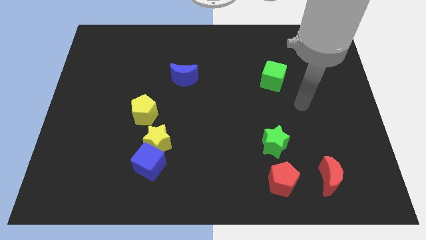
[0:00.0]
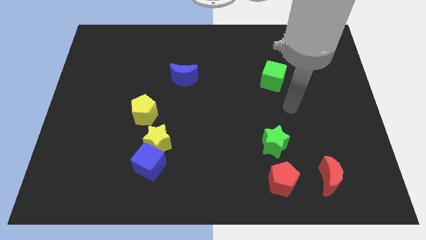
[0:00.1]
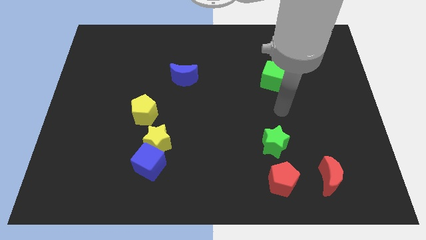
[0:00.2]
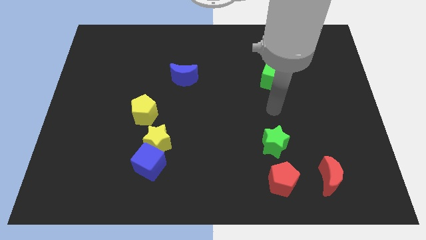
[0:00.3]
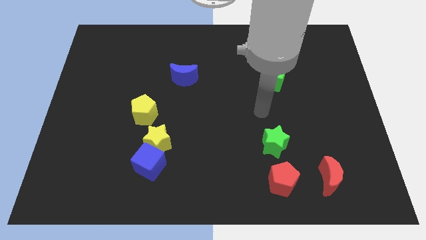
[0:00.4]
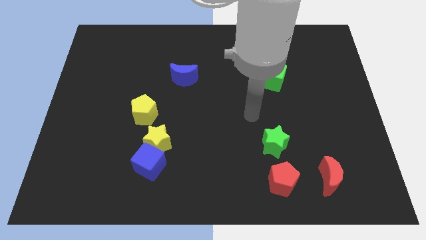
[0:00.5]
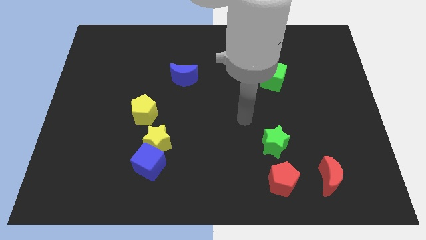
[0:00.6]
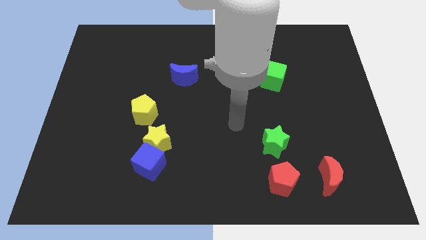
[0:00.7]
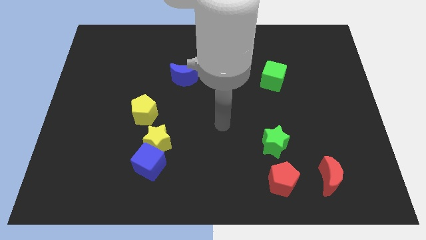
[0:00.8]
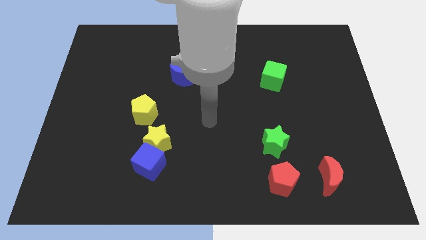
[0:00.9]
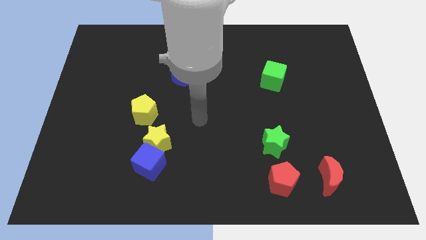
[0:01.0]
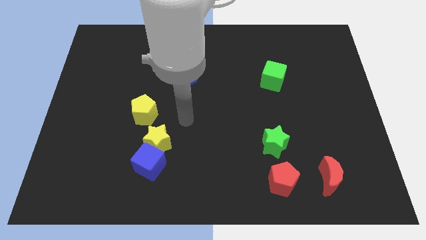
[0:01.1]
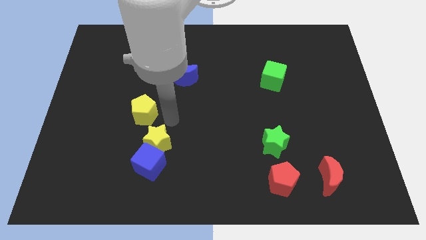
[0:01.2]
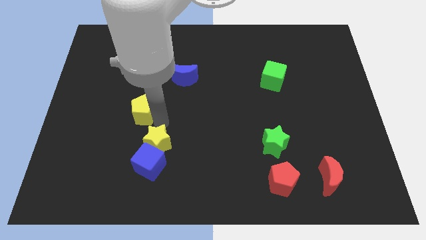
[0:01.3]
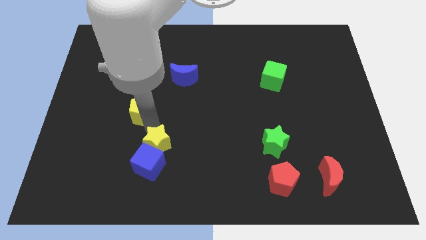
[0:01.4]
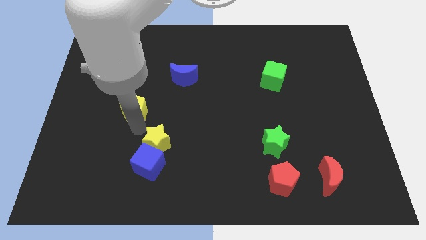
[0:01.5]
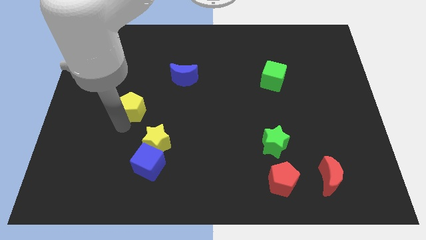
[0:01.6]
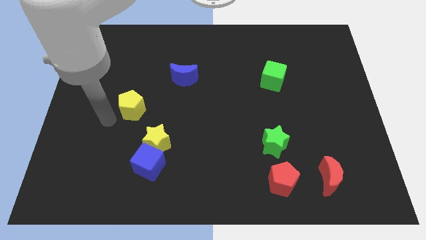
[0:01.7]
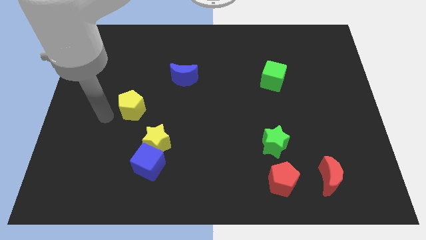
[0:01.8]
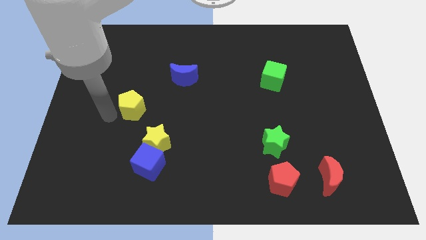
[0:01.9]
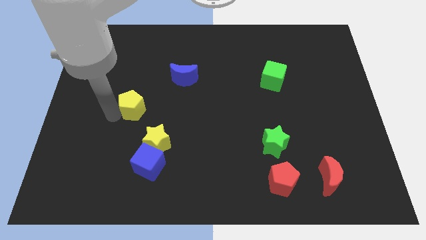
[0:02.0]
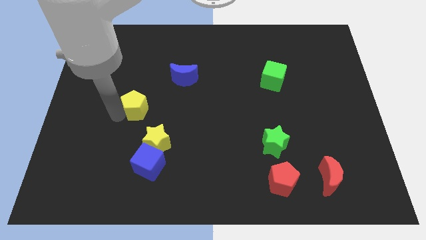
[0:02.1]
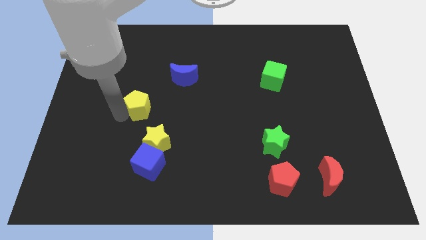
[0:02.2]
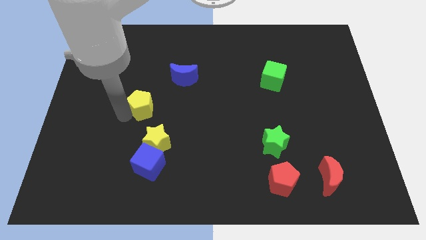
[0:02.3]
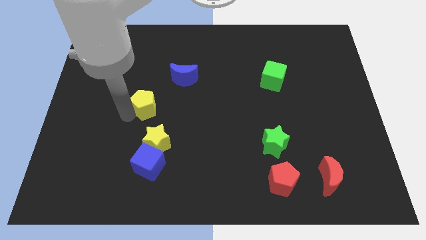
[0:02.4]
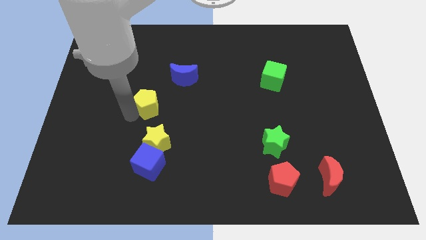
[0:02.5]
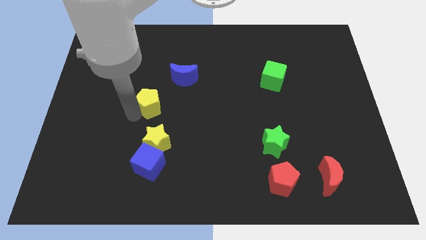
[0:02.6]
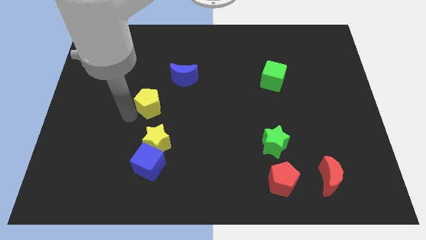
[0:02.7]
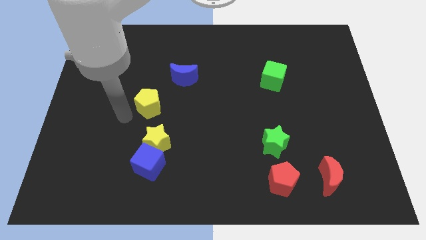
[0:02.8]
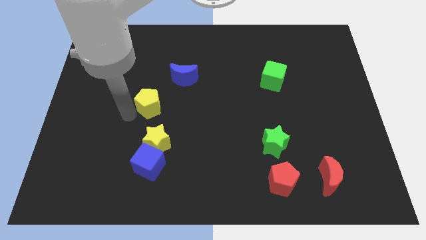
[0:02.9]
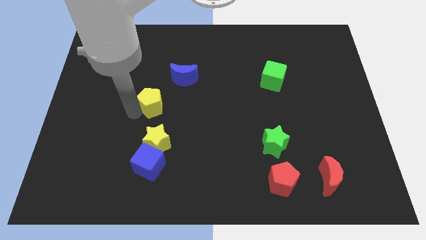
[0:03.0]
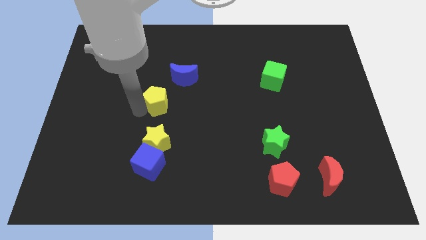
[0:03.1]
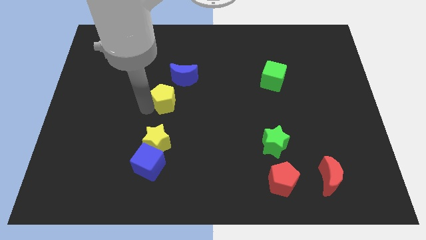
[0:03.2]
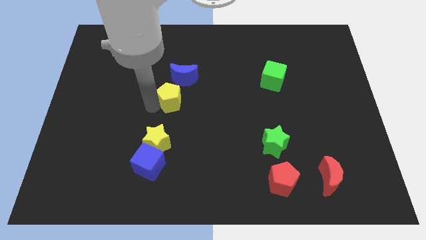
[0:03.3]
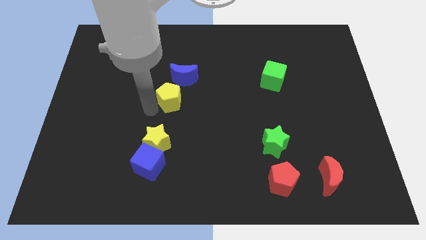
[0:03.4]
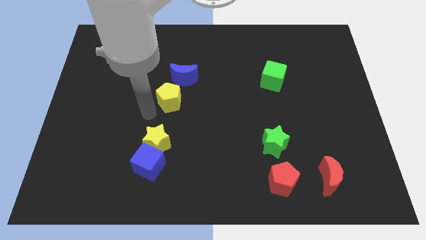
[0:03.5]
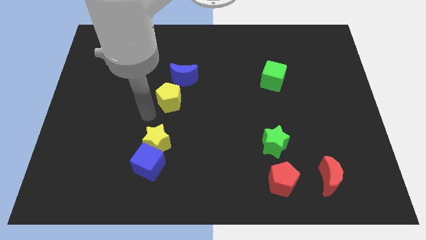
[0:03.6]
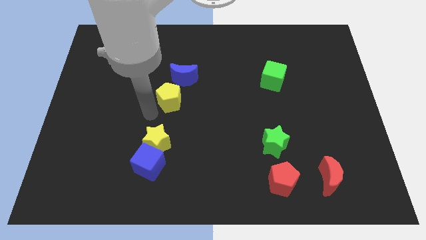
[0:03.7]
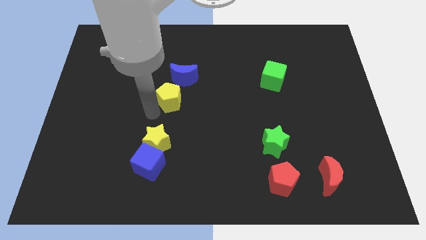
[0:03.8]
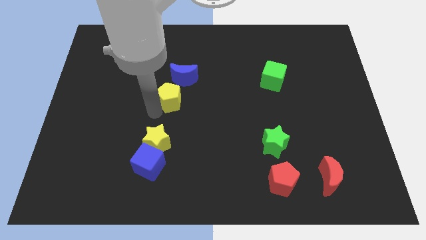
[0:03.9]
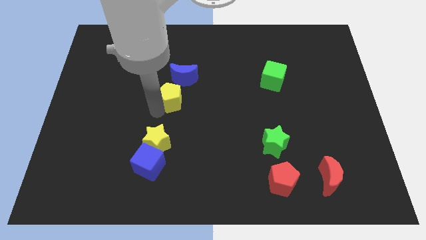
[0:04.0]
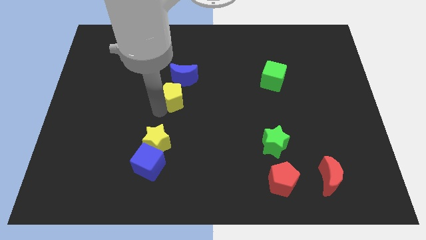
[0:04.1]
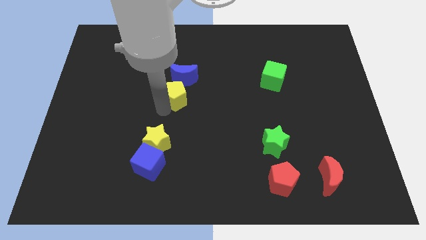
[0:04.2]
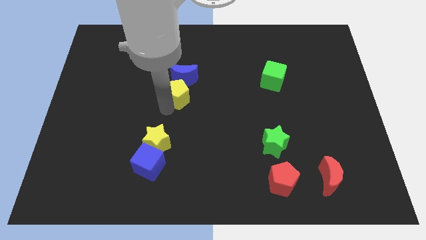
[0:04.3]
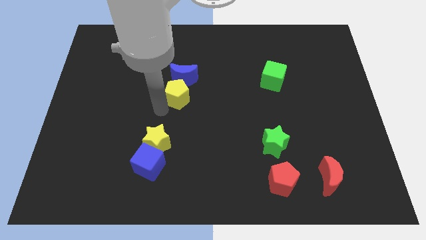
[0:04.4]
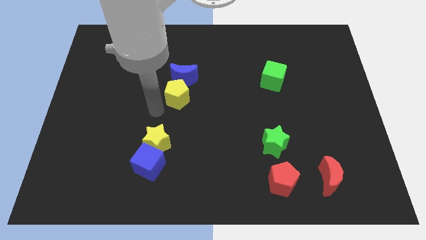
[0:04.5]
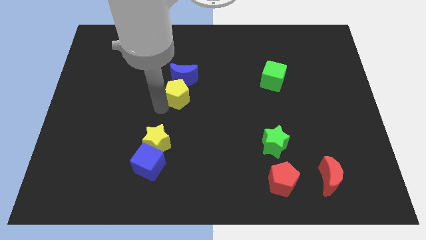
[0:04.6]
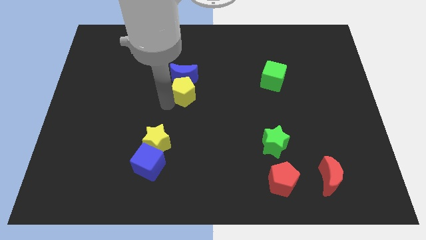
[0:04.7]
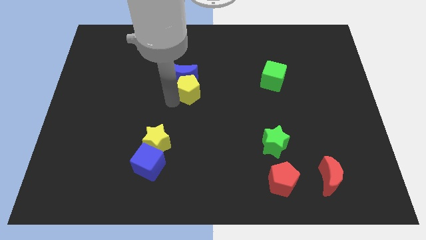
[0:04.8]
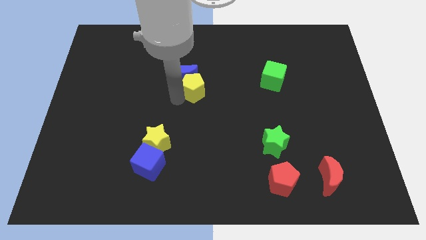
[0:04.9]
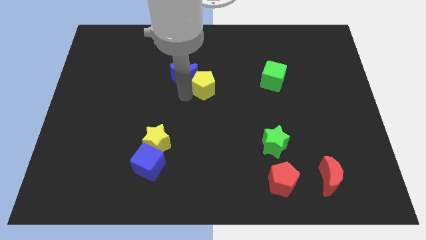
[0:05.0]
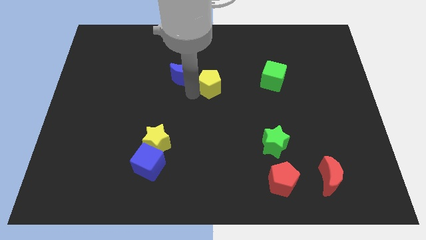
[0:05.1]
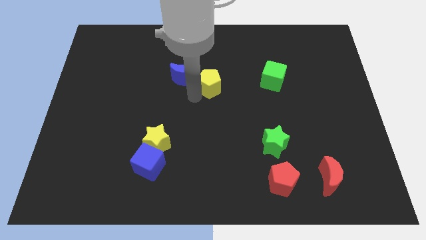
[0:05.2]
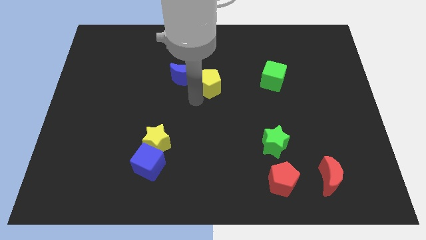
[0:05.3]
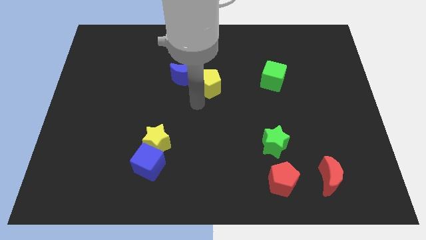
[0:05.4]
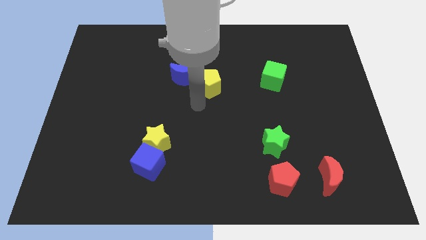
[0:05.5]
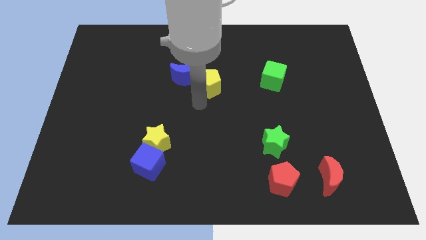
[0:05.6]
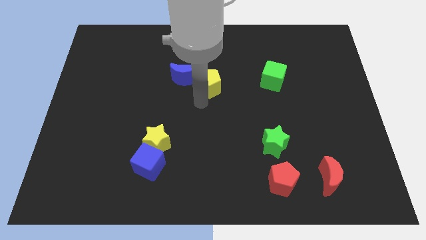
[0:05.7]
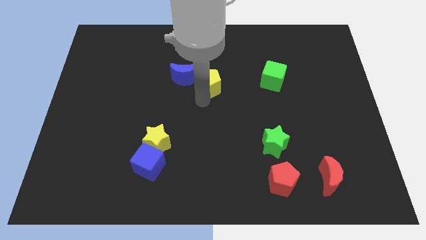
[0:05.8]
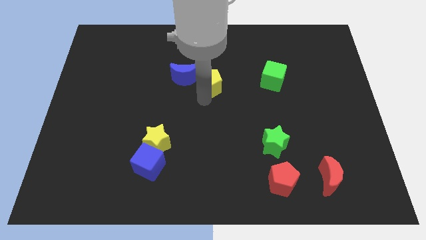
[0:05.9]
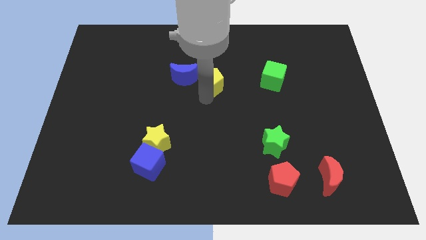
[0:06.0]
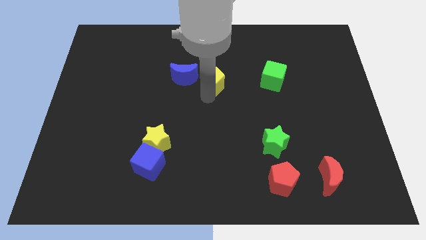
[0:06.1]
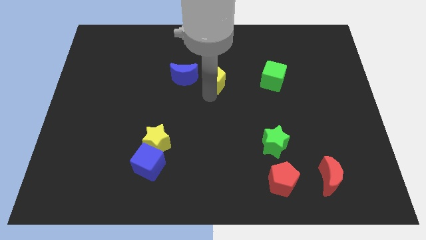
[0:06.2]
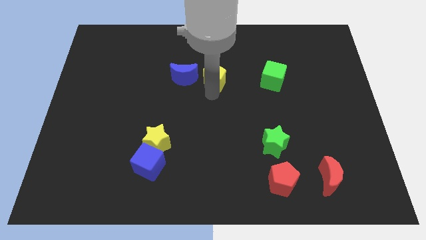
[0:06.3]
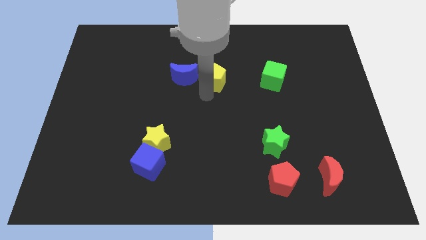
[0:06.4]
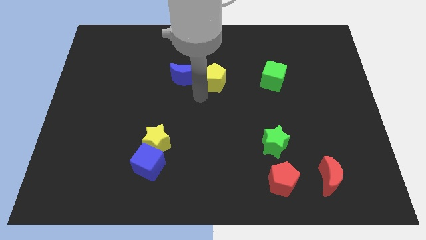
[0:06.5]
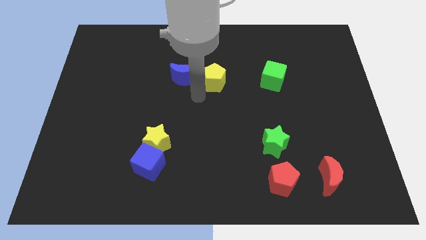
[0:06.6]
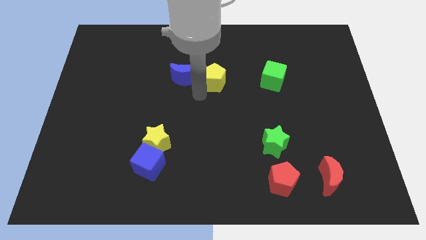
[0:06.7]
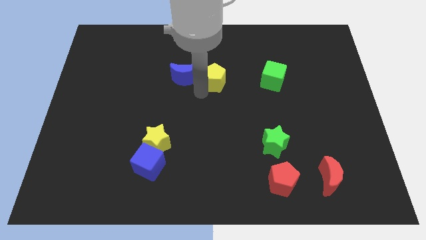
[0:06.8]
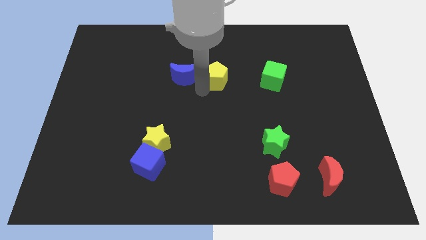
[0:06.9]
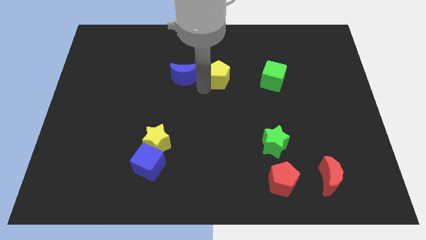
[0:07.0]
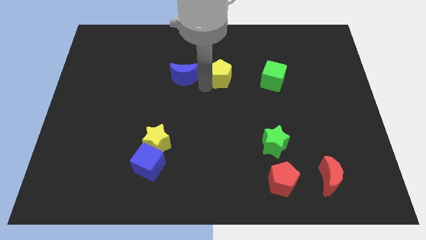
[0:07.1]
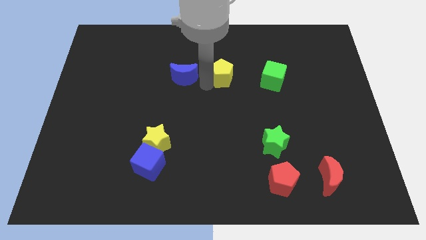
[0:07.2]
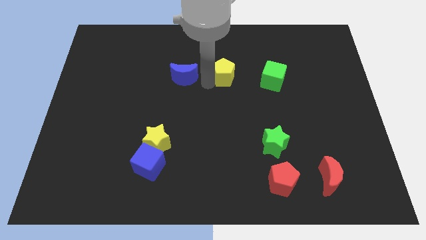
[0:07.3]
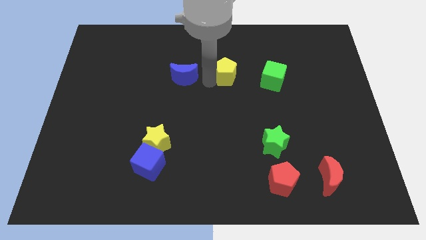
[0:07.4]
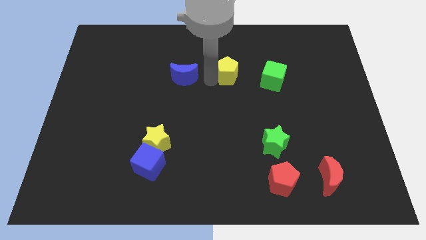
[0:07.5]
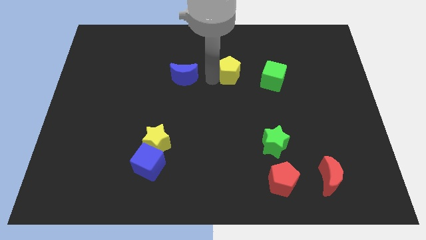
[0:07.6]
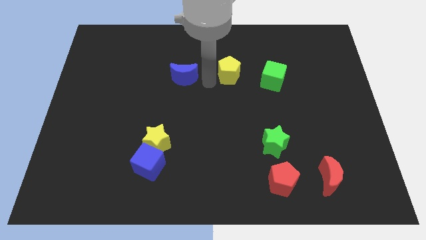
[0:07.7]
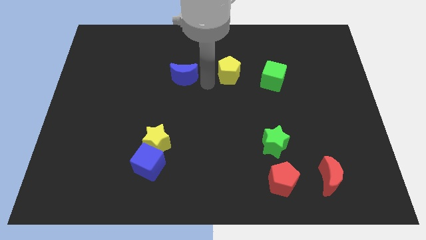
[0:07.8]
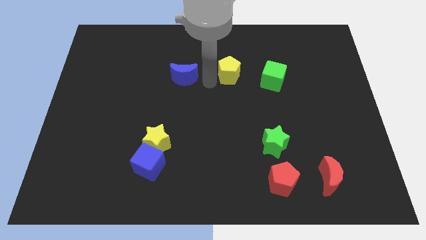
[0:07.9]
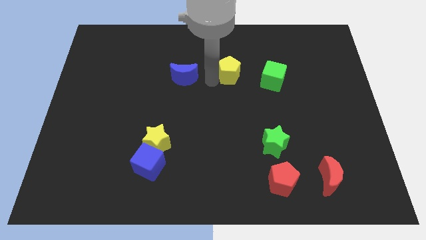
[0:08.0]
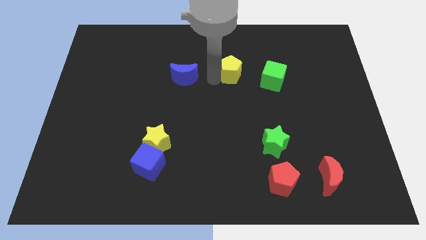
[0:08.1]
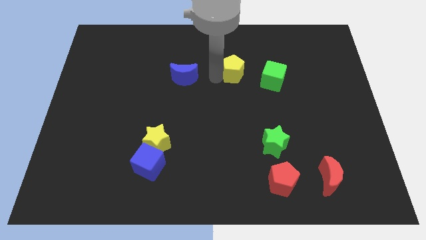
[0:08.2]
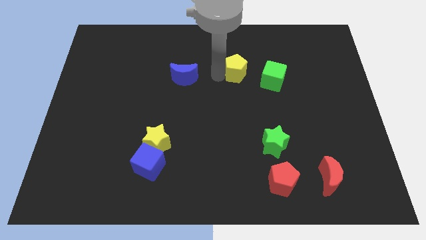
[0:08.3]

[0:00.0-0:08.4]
put the yellow pentagon to the top left side of the green cube
